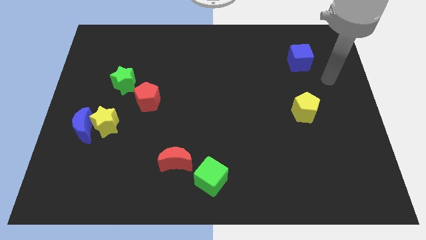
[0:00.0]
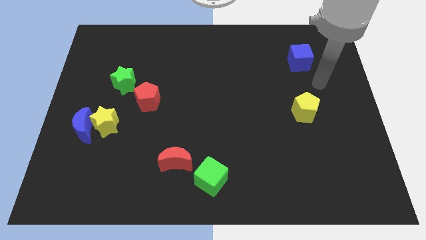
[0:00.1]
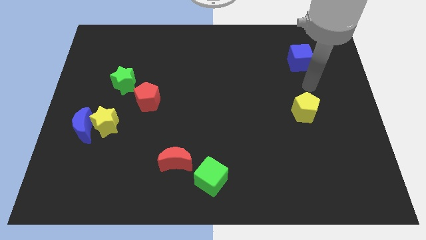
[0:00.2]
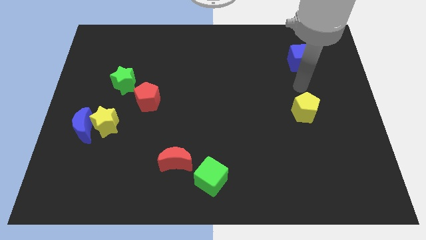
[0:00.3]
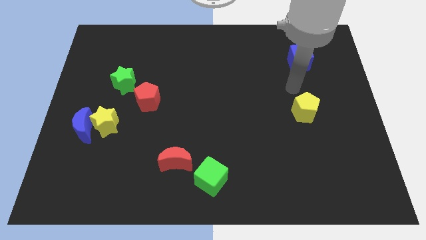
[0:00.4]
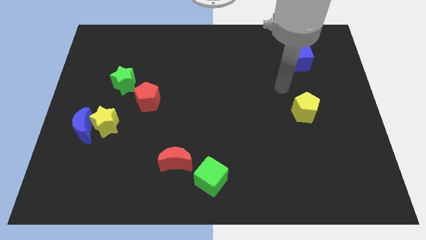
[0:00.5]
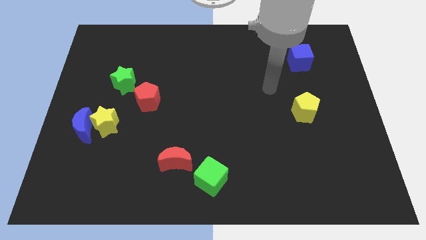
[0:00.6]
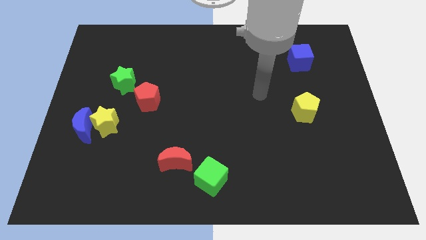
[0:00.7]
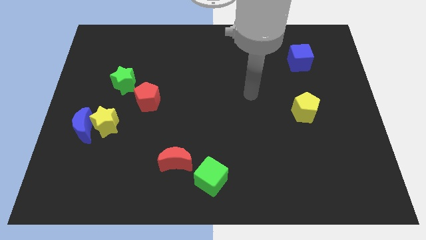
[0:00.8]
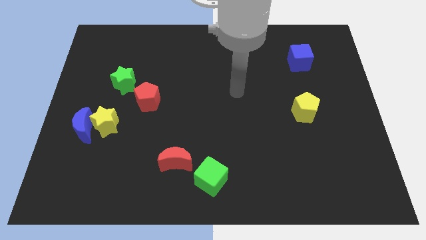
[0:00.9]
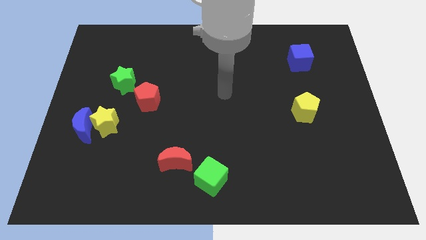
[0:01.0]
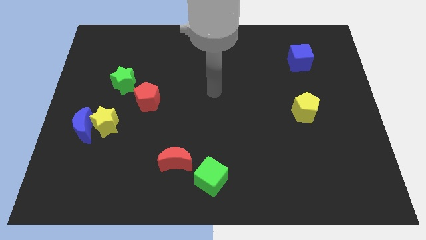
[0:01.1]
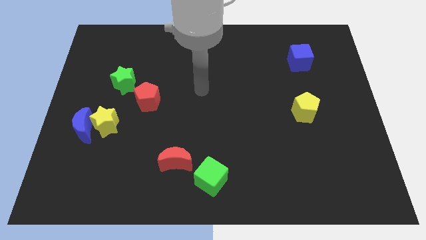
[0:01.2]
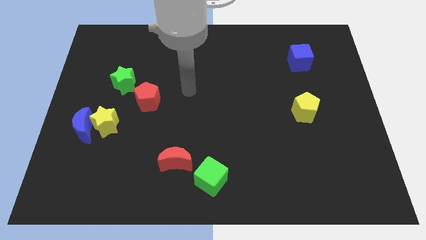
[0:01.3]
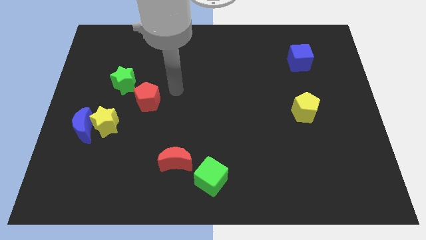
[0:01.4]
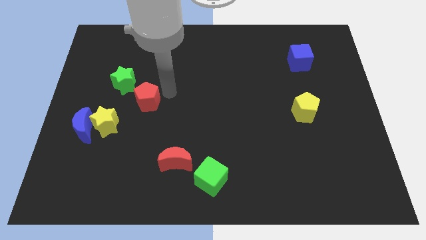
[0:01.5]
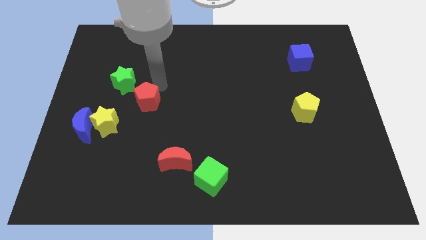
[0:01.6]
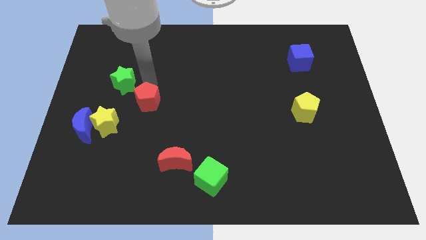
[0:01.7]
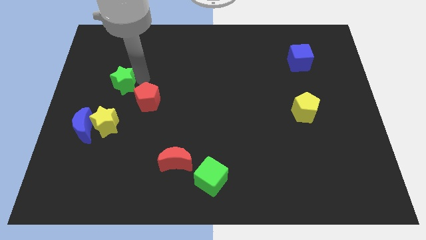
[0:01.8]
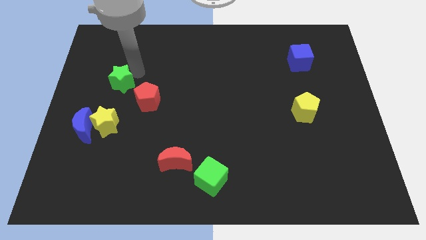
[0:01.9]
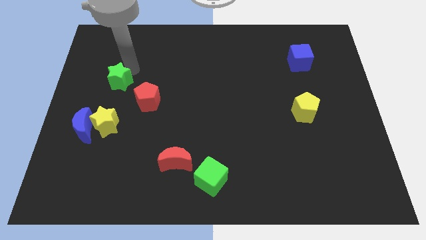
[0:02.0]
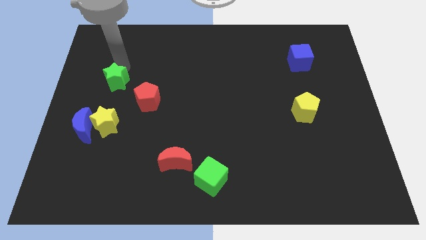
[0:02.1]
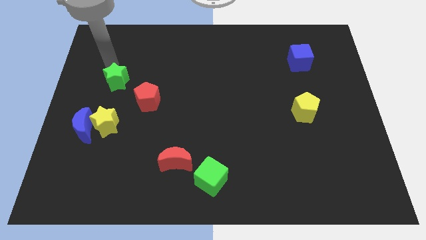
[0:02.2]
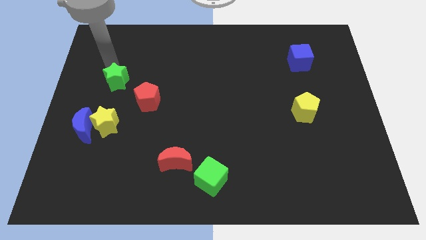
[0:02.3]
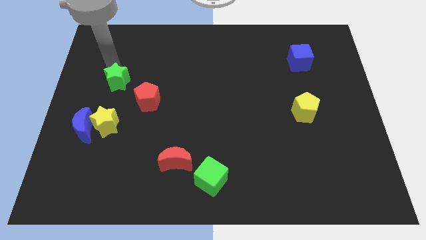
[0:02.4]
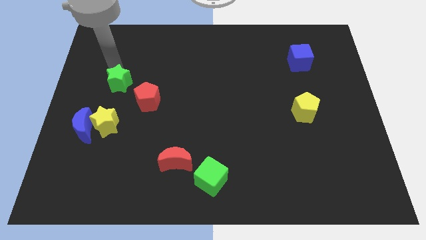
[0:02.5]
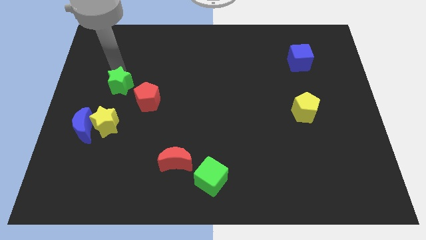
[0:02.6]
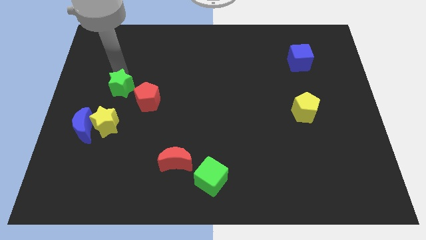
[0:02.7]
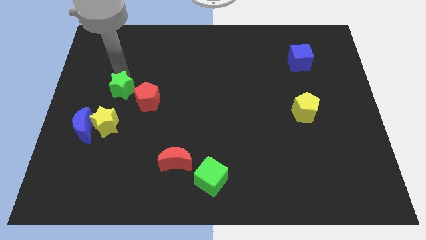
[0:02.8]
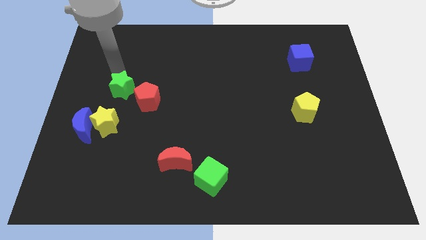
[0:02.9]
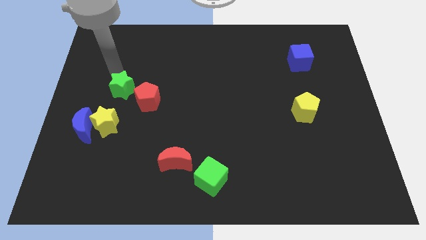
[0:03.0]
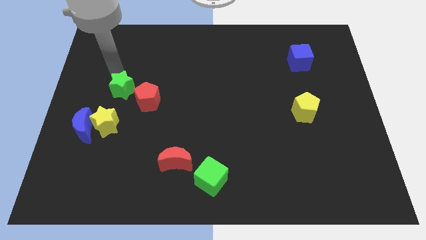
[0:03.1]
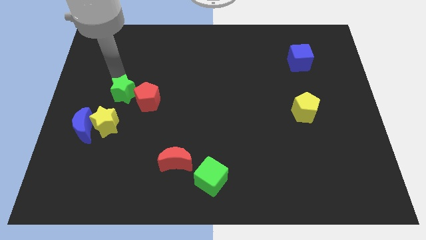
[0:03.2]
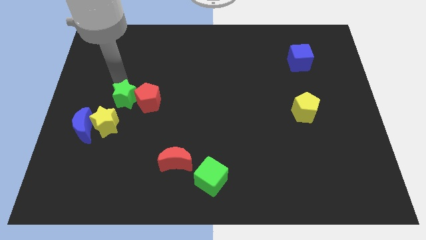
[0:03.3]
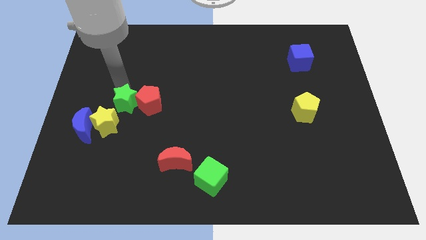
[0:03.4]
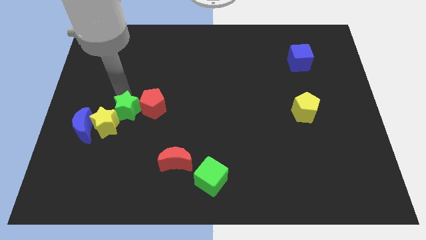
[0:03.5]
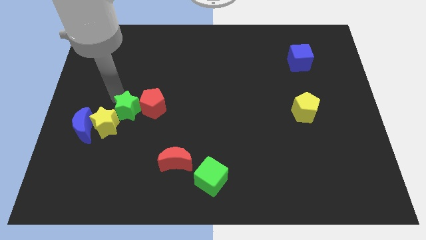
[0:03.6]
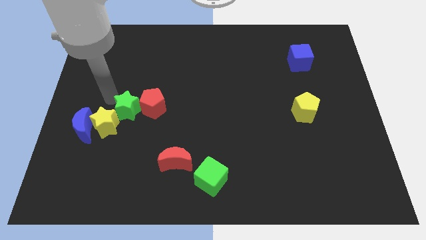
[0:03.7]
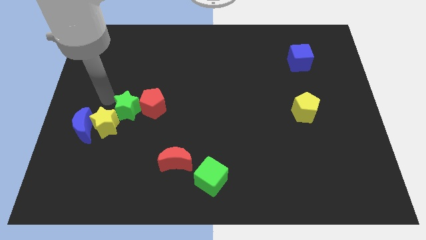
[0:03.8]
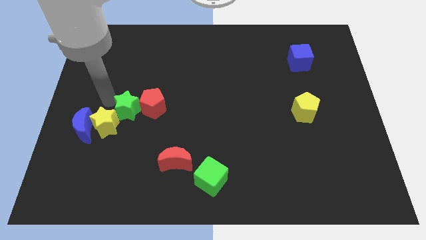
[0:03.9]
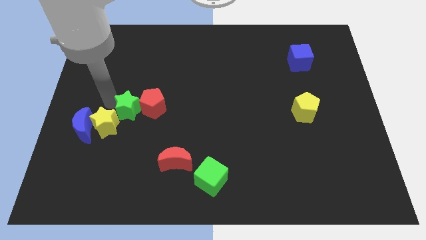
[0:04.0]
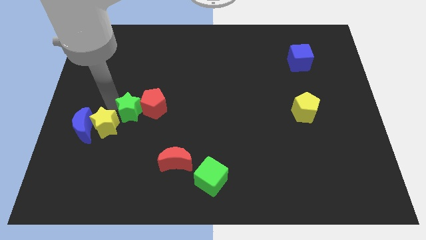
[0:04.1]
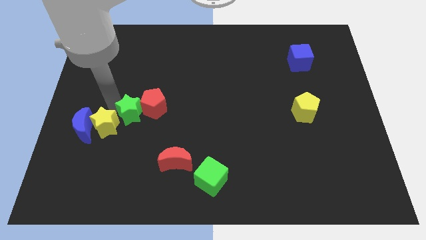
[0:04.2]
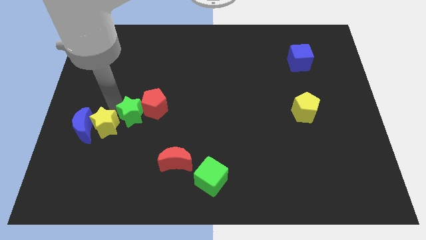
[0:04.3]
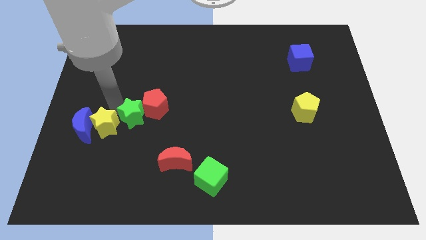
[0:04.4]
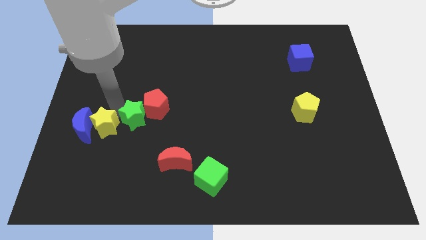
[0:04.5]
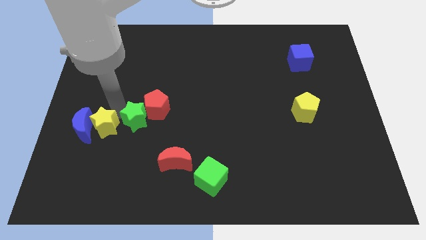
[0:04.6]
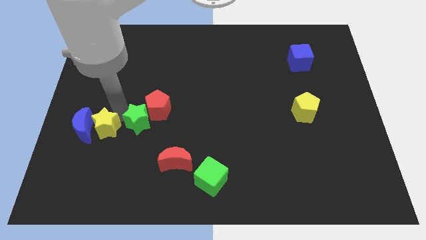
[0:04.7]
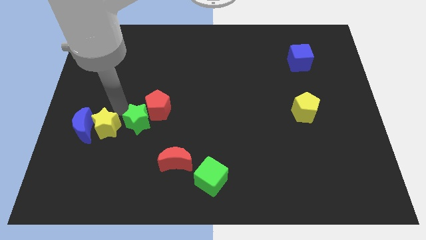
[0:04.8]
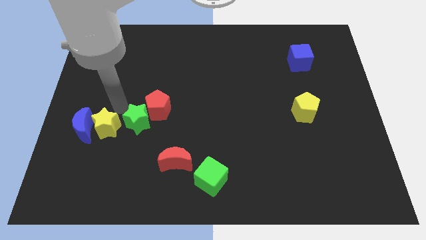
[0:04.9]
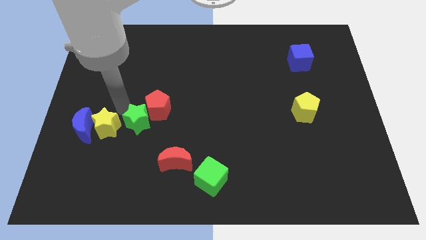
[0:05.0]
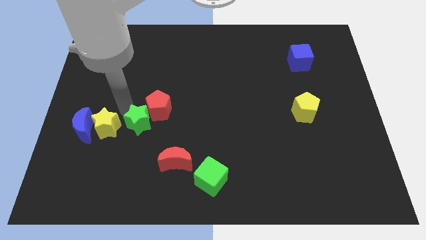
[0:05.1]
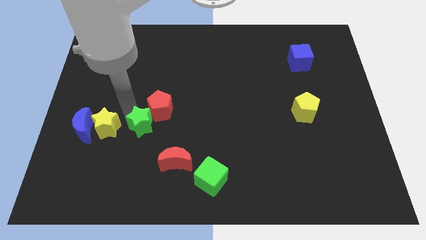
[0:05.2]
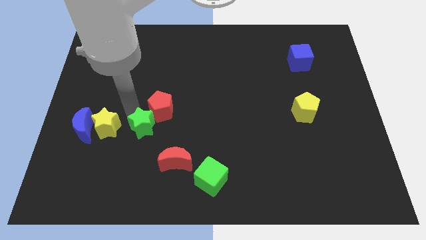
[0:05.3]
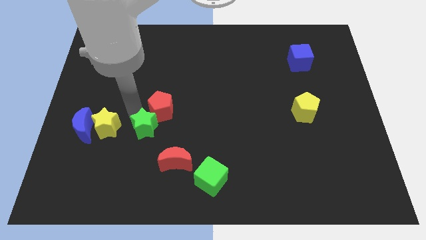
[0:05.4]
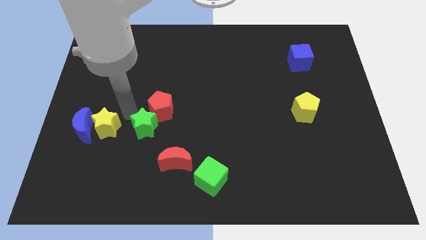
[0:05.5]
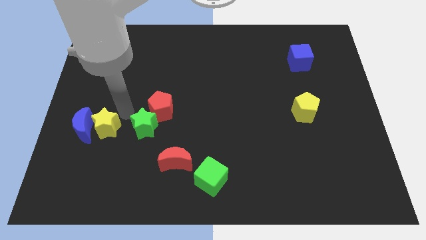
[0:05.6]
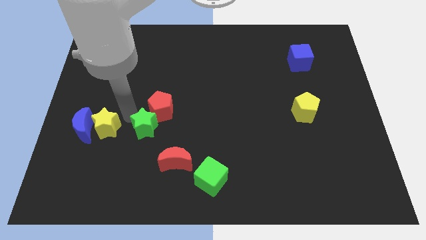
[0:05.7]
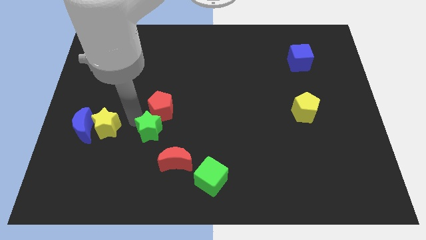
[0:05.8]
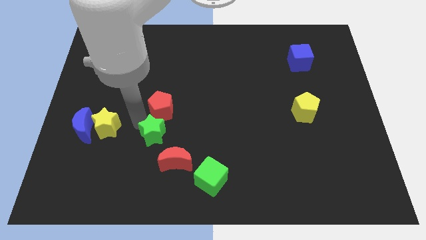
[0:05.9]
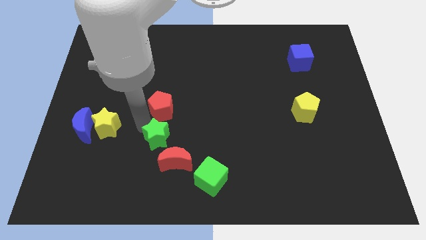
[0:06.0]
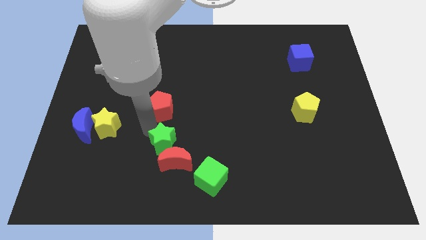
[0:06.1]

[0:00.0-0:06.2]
move the green star next to the red moon
